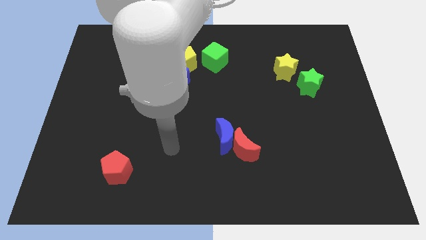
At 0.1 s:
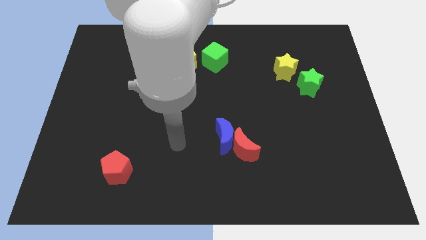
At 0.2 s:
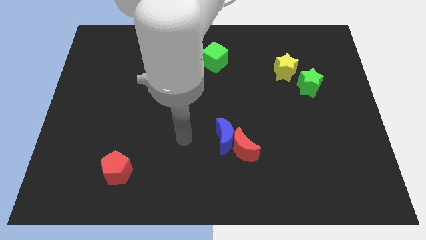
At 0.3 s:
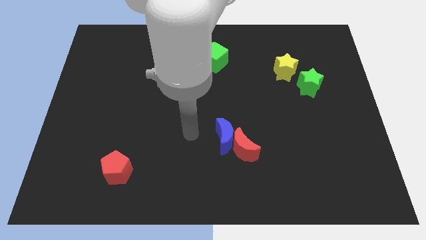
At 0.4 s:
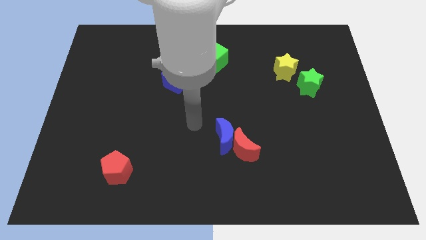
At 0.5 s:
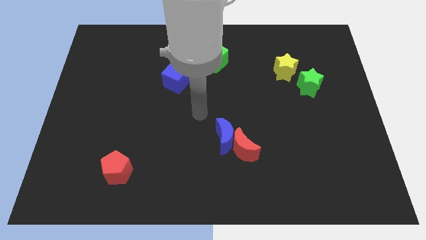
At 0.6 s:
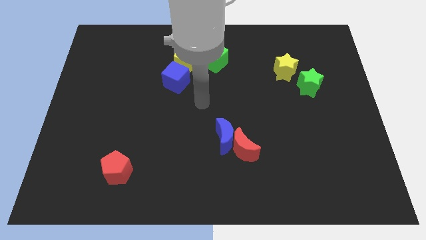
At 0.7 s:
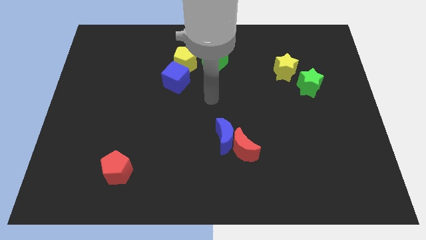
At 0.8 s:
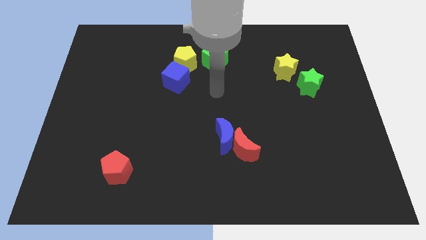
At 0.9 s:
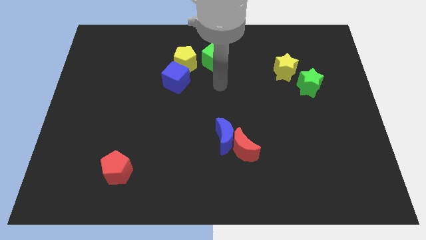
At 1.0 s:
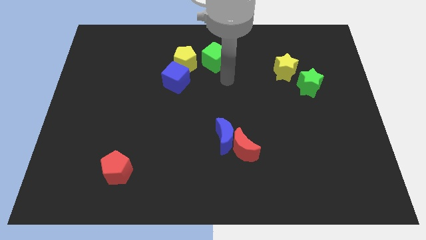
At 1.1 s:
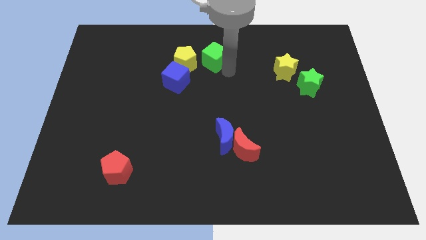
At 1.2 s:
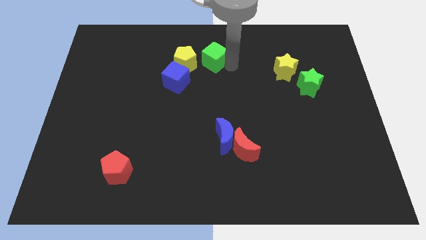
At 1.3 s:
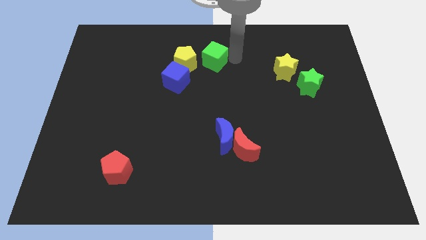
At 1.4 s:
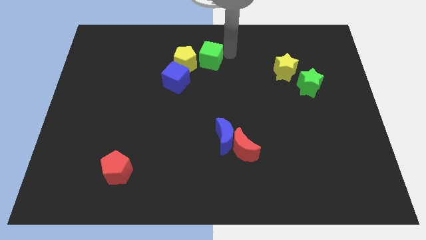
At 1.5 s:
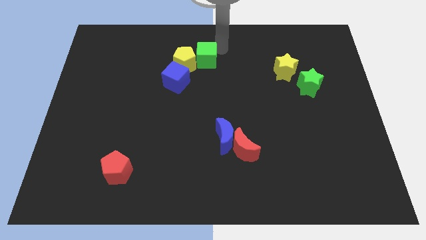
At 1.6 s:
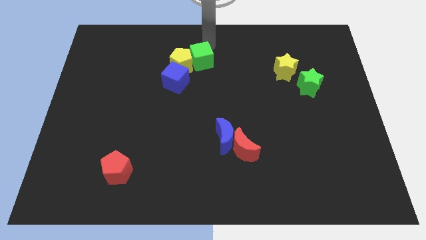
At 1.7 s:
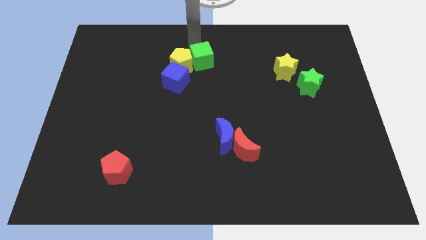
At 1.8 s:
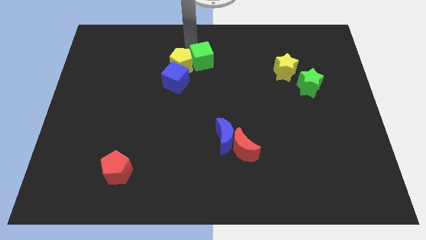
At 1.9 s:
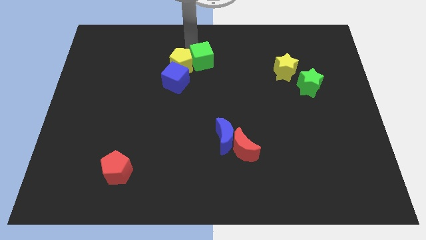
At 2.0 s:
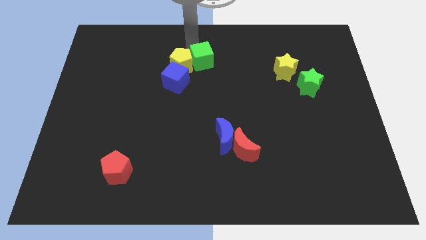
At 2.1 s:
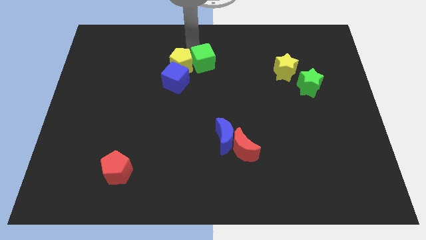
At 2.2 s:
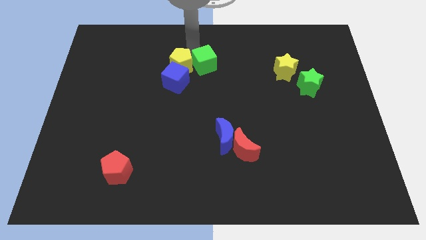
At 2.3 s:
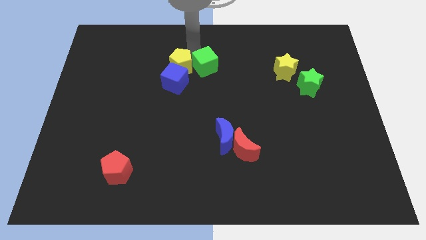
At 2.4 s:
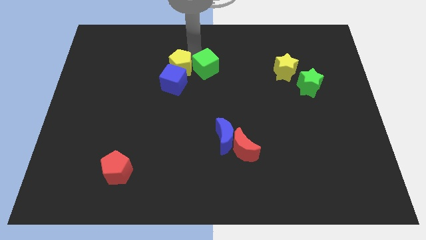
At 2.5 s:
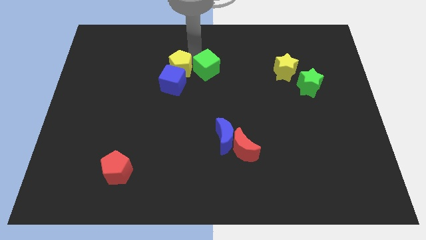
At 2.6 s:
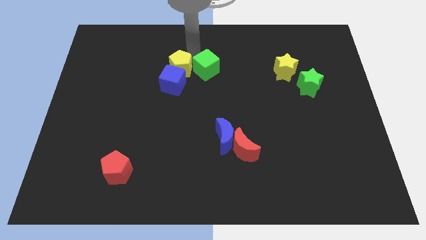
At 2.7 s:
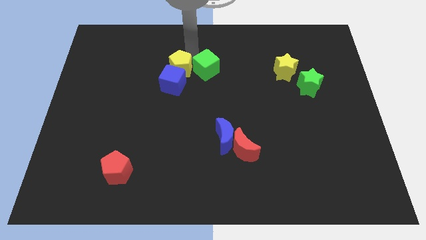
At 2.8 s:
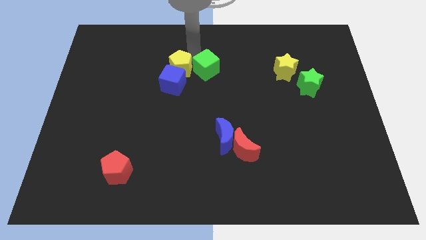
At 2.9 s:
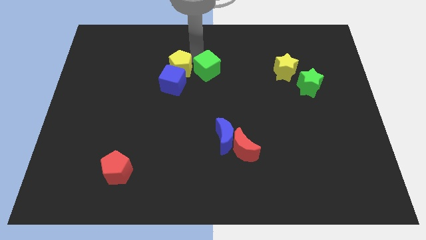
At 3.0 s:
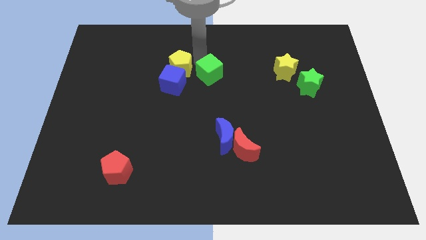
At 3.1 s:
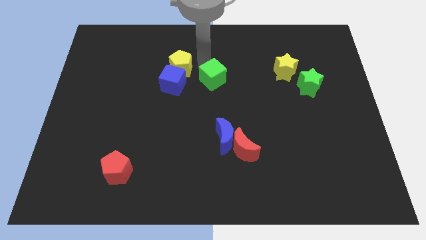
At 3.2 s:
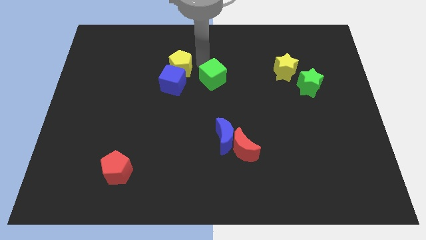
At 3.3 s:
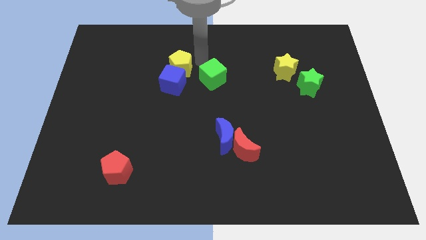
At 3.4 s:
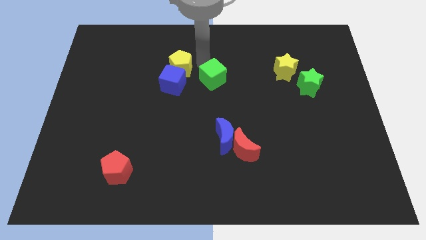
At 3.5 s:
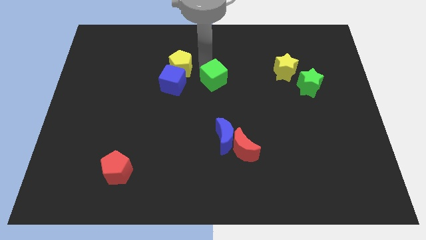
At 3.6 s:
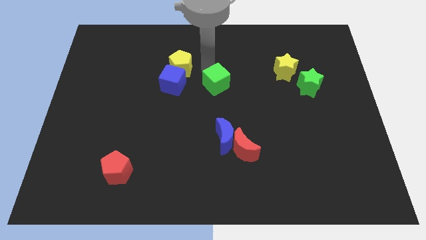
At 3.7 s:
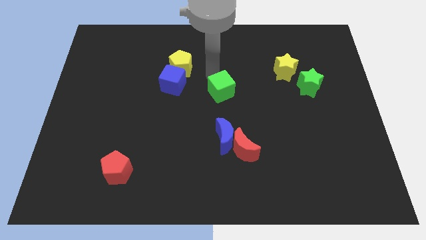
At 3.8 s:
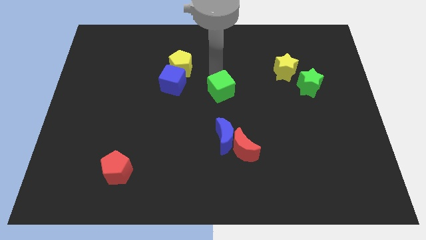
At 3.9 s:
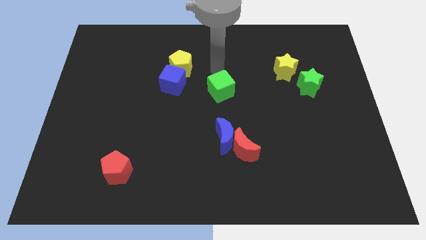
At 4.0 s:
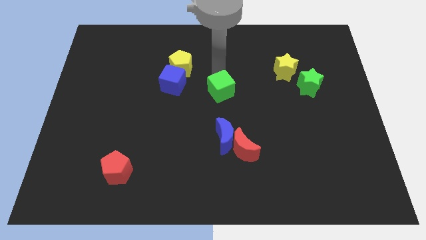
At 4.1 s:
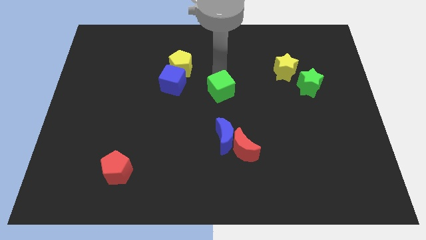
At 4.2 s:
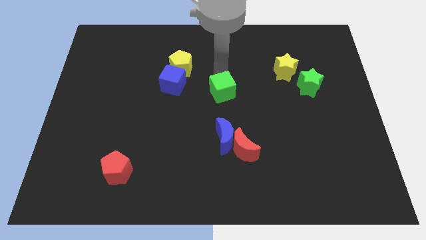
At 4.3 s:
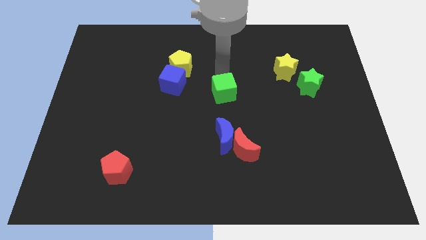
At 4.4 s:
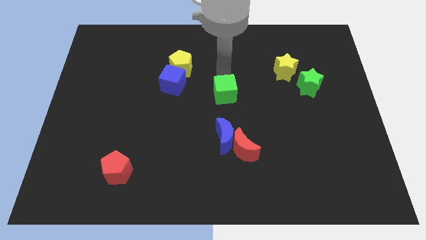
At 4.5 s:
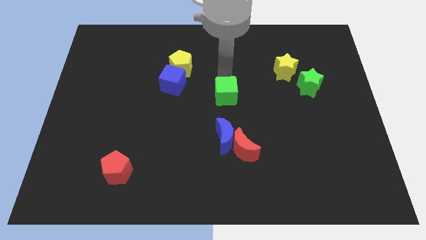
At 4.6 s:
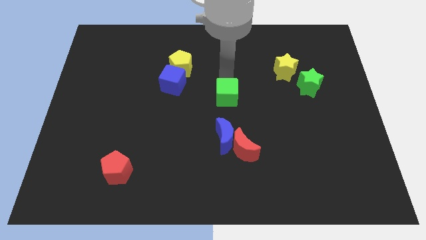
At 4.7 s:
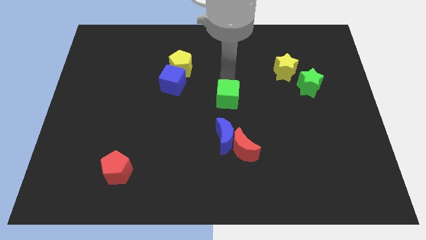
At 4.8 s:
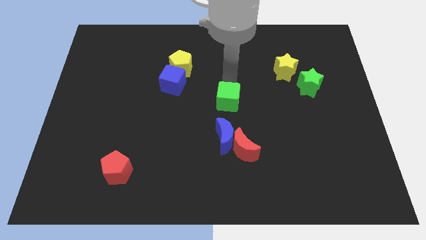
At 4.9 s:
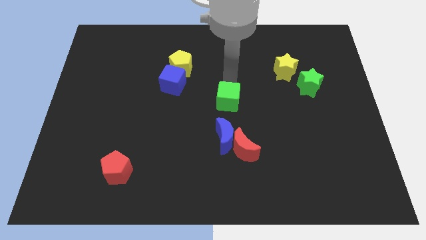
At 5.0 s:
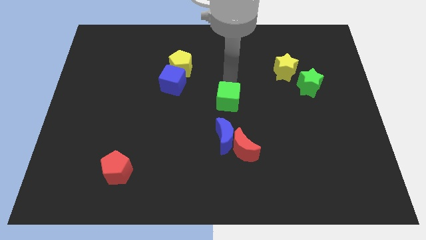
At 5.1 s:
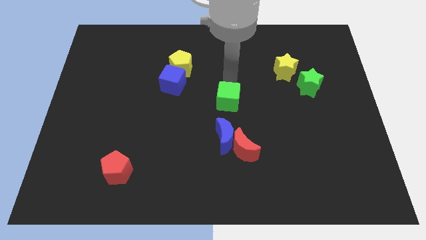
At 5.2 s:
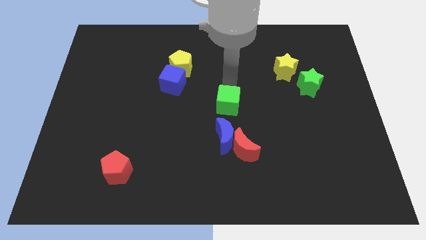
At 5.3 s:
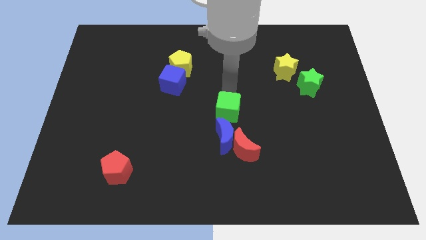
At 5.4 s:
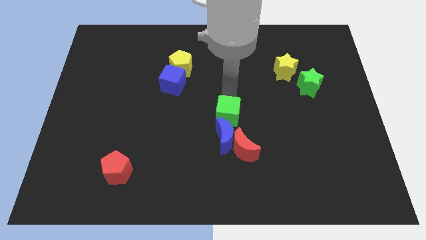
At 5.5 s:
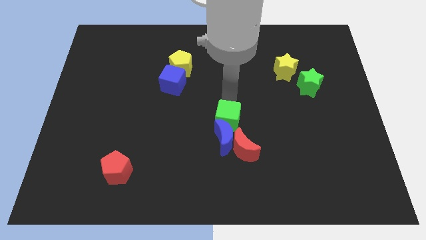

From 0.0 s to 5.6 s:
put the green cube next to the blue moon

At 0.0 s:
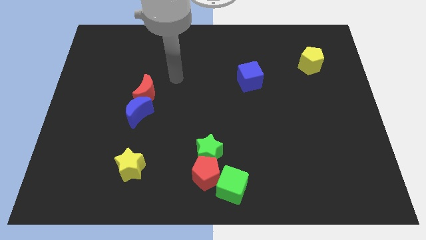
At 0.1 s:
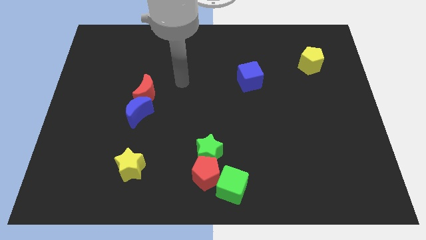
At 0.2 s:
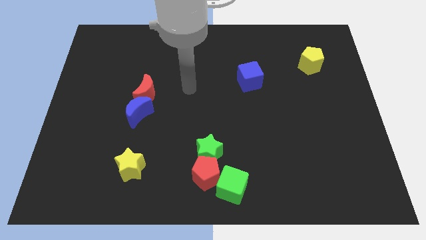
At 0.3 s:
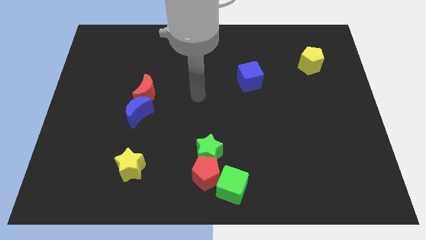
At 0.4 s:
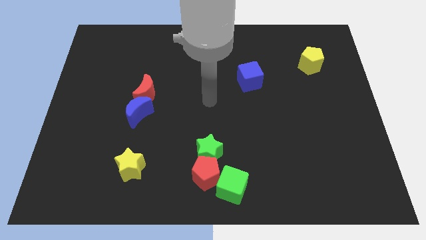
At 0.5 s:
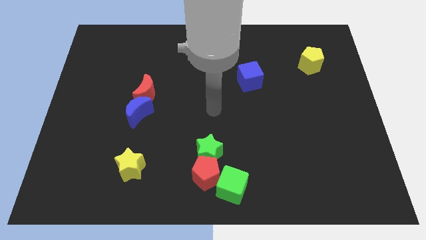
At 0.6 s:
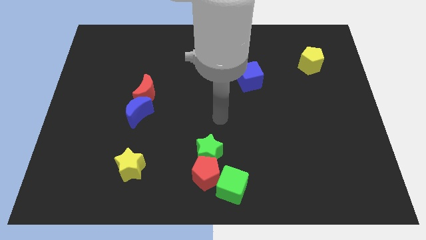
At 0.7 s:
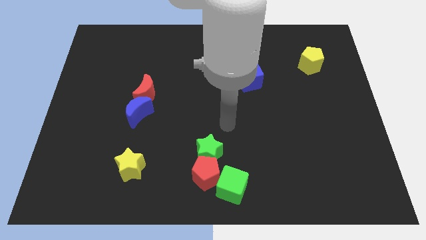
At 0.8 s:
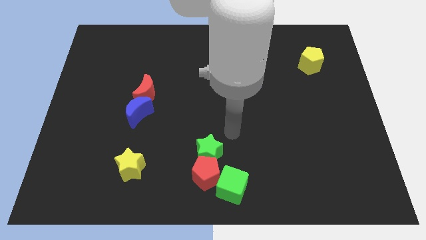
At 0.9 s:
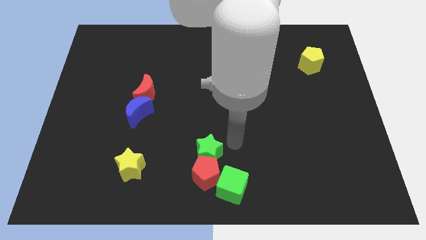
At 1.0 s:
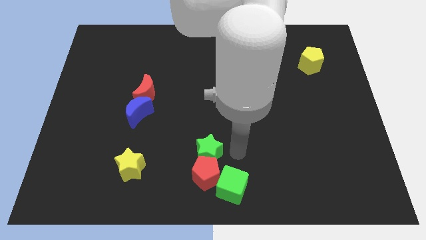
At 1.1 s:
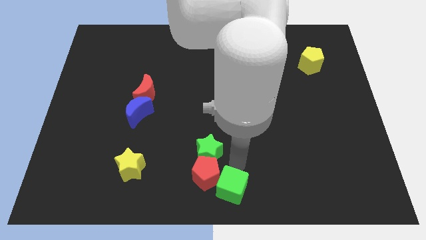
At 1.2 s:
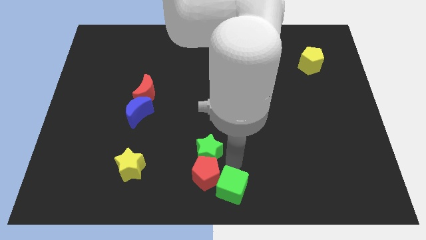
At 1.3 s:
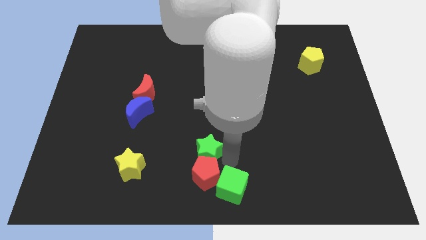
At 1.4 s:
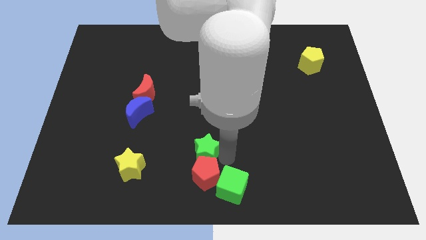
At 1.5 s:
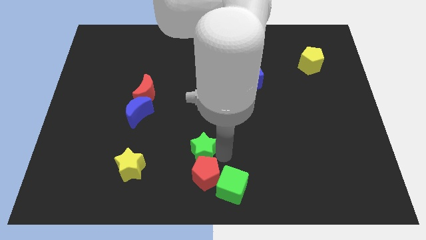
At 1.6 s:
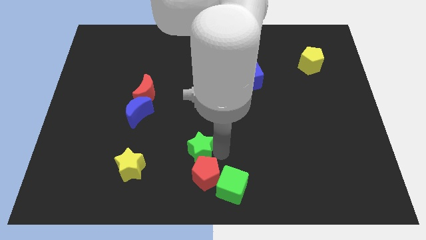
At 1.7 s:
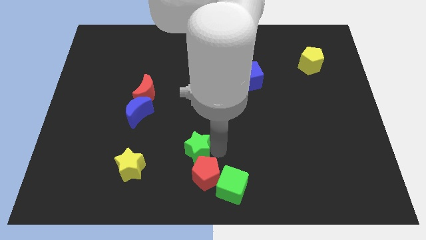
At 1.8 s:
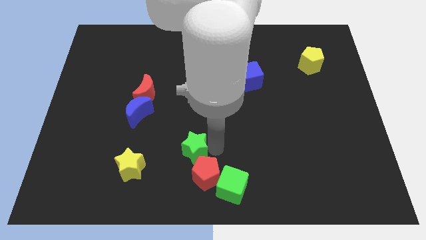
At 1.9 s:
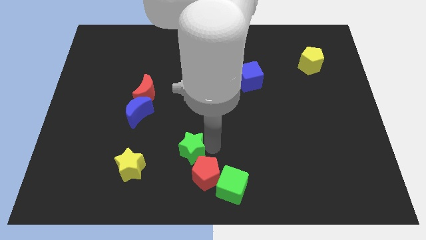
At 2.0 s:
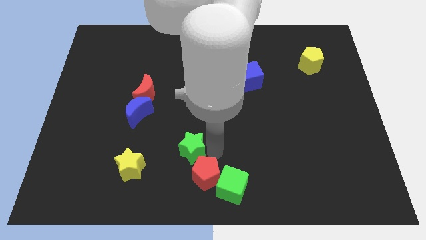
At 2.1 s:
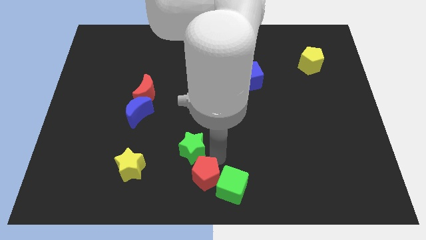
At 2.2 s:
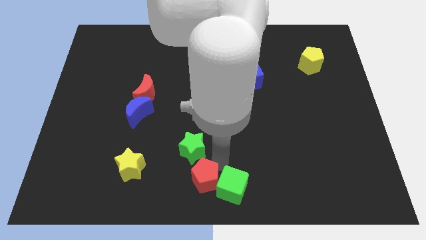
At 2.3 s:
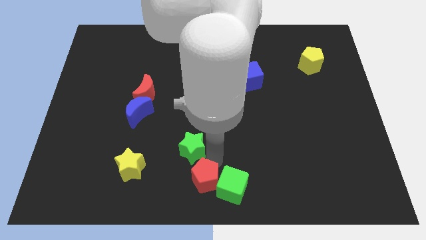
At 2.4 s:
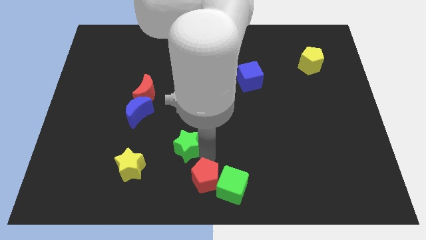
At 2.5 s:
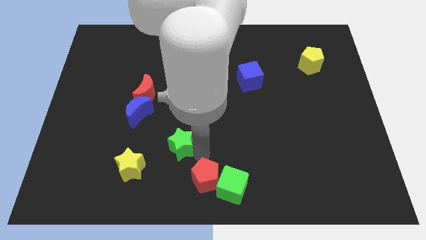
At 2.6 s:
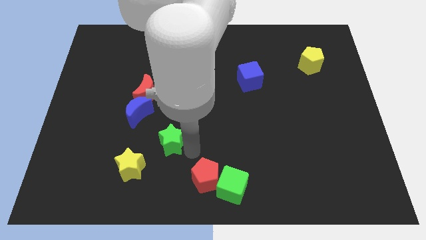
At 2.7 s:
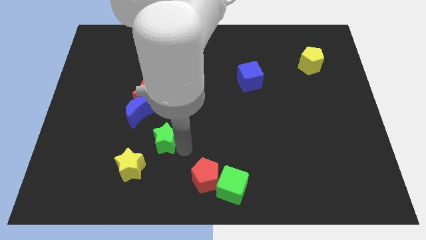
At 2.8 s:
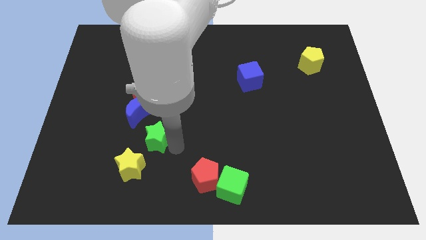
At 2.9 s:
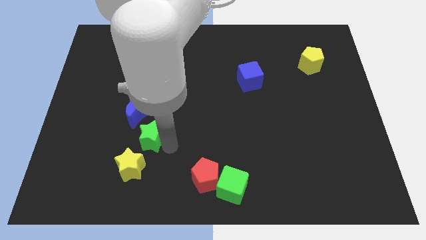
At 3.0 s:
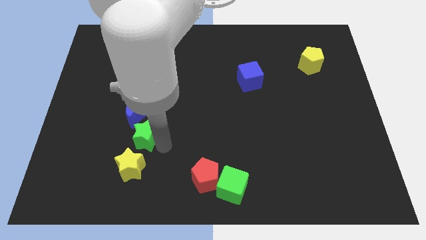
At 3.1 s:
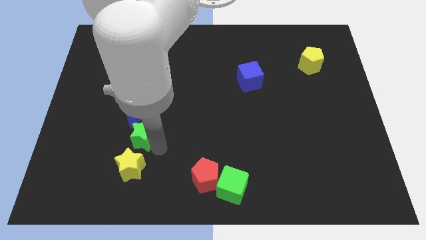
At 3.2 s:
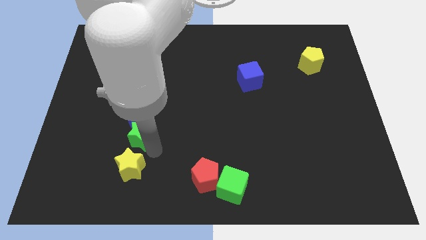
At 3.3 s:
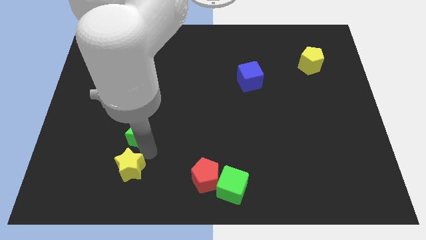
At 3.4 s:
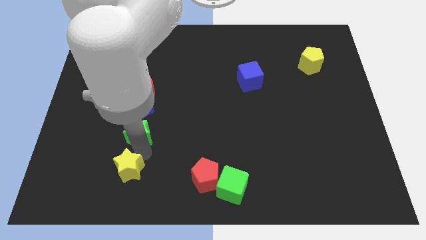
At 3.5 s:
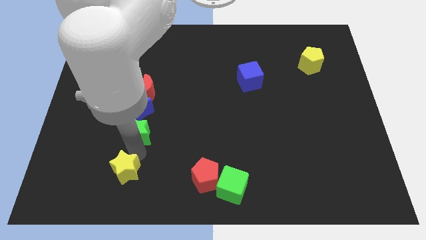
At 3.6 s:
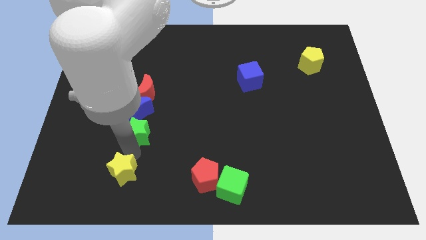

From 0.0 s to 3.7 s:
push the green star towards the blue moon
